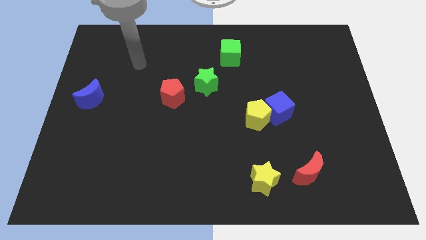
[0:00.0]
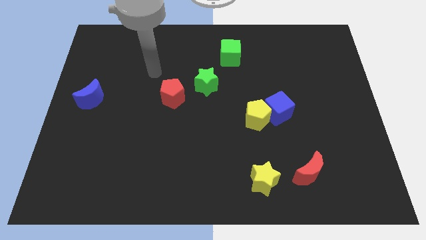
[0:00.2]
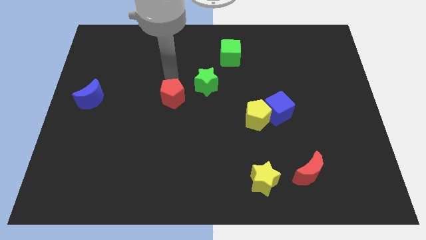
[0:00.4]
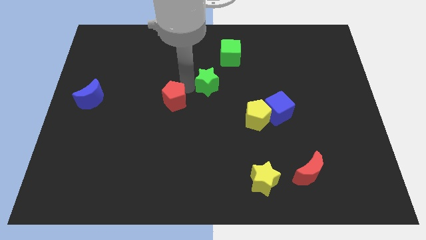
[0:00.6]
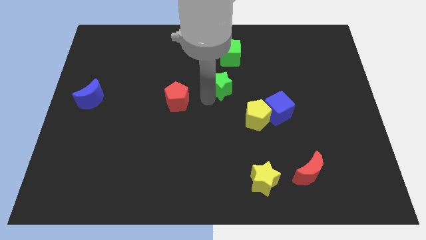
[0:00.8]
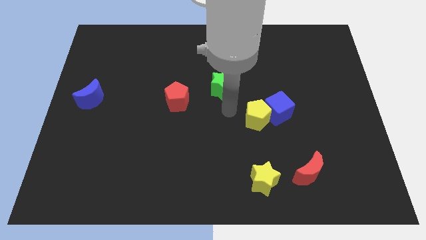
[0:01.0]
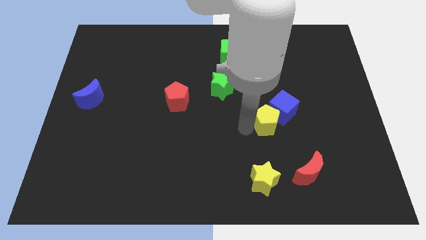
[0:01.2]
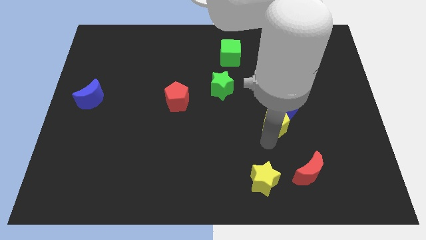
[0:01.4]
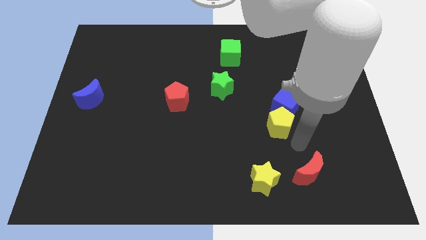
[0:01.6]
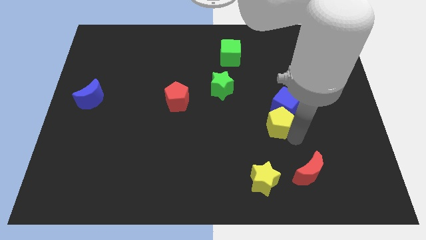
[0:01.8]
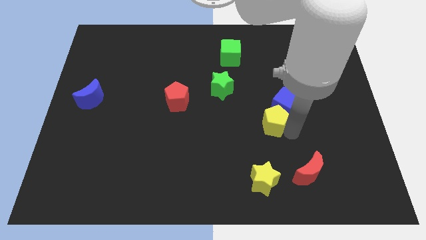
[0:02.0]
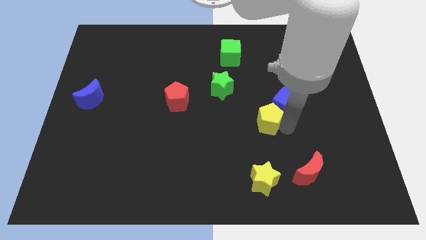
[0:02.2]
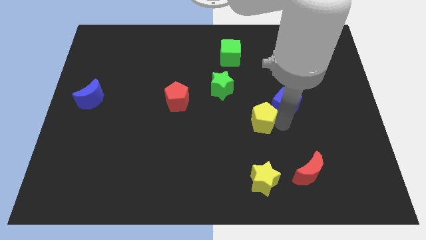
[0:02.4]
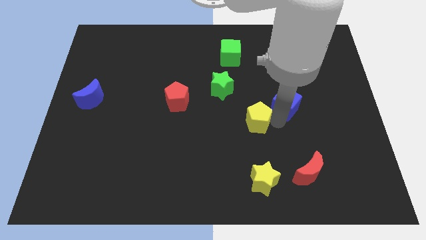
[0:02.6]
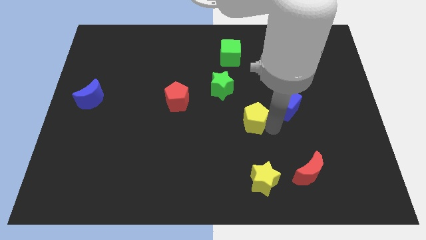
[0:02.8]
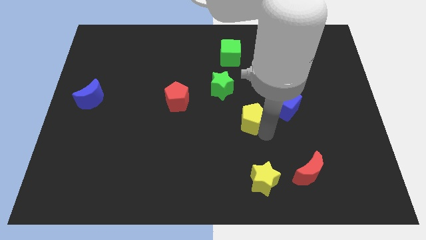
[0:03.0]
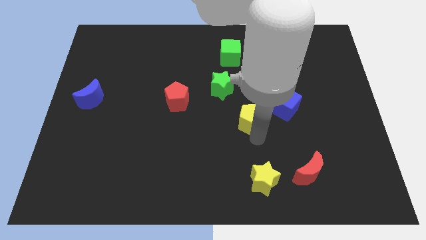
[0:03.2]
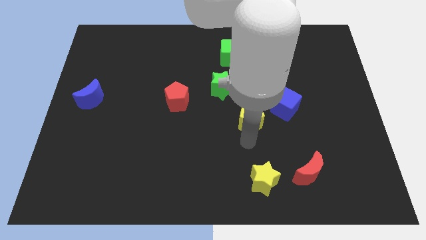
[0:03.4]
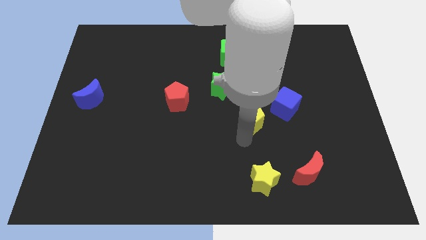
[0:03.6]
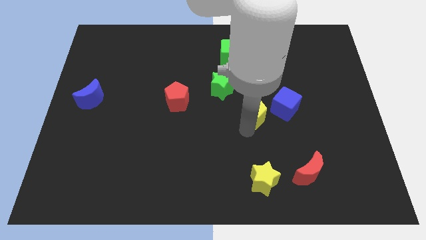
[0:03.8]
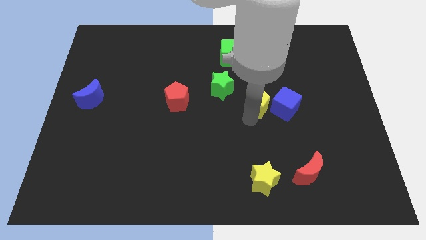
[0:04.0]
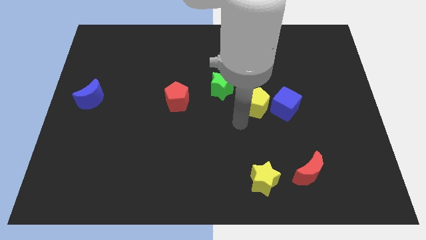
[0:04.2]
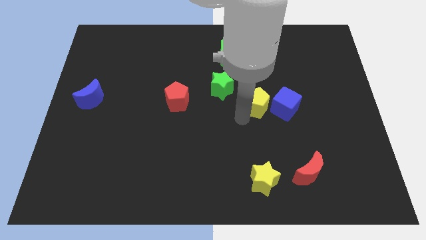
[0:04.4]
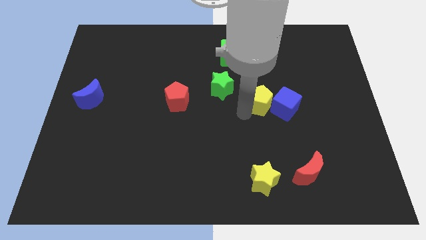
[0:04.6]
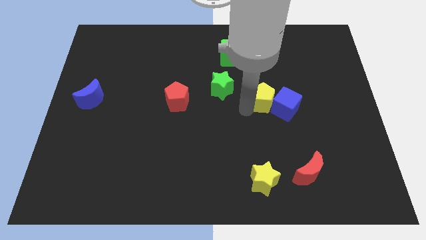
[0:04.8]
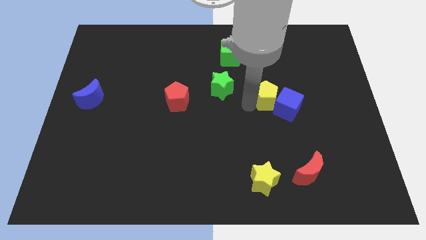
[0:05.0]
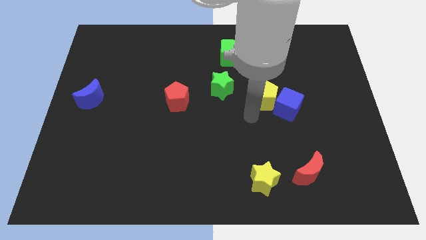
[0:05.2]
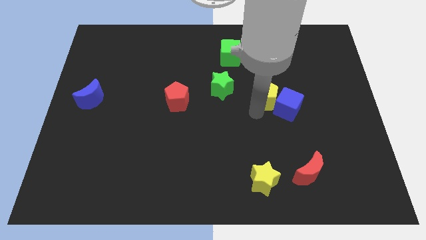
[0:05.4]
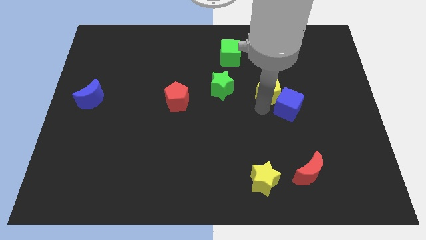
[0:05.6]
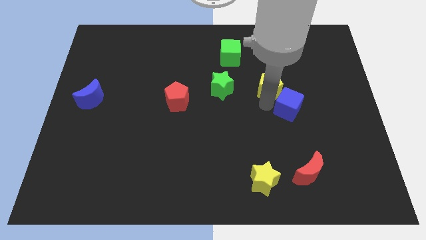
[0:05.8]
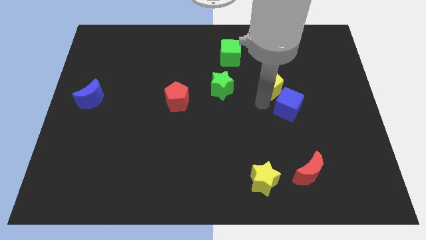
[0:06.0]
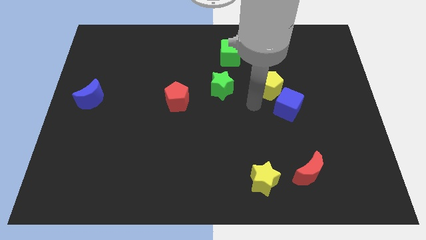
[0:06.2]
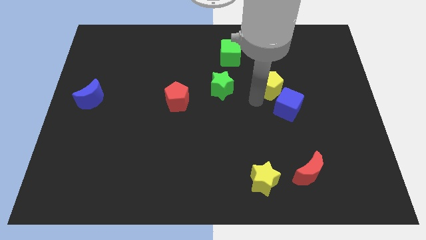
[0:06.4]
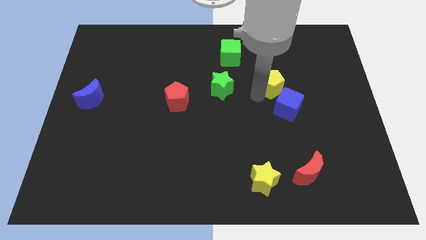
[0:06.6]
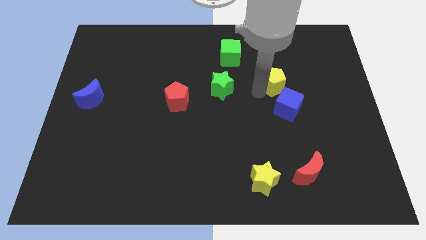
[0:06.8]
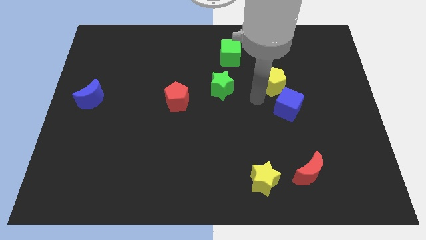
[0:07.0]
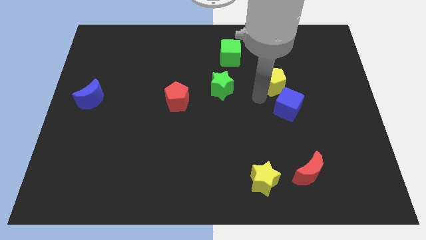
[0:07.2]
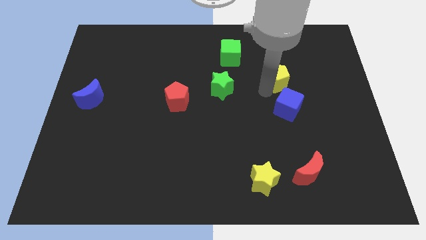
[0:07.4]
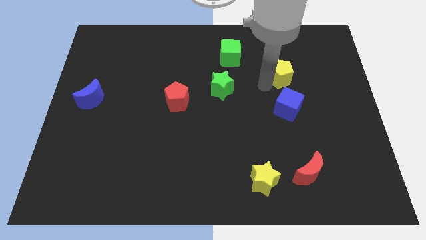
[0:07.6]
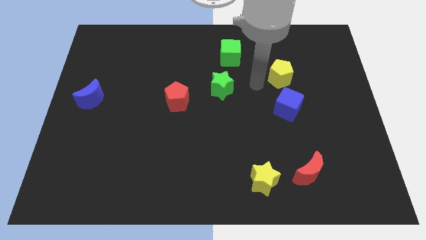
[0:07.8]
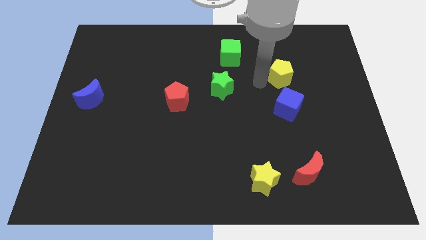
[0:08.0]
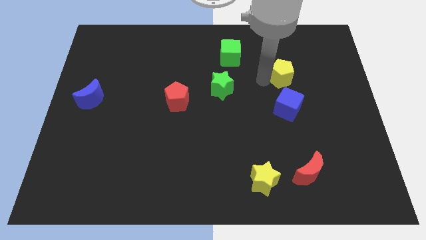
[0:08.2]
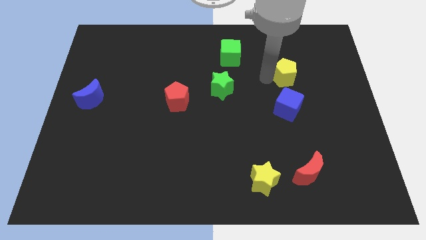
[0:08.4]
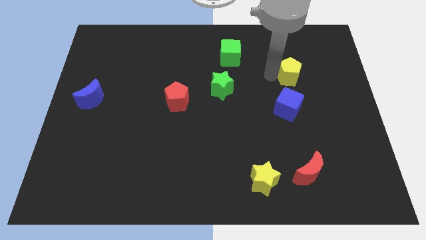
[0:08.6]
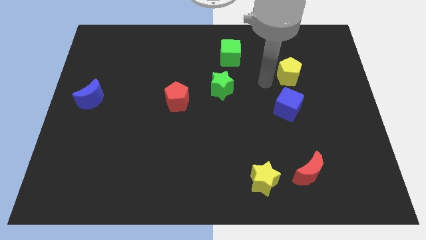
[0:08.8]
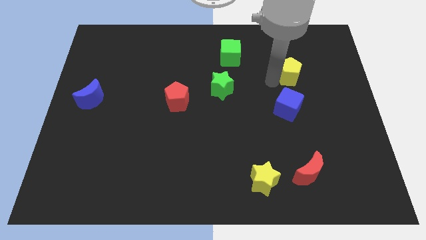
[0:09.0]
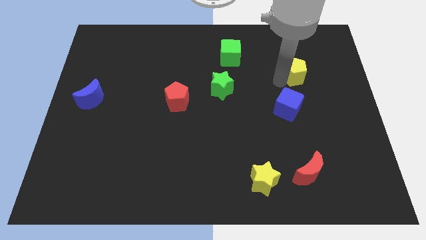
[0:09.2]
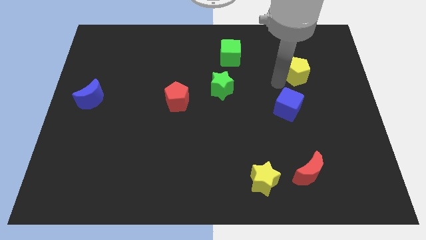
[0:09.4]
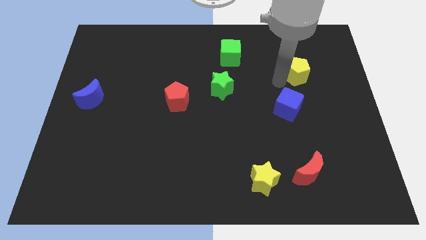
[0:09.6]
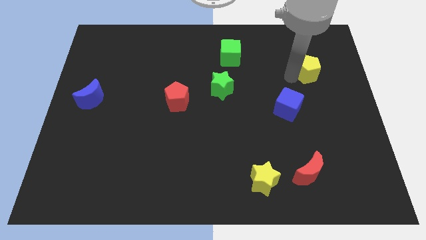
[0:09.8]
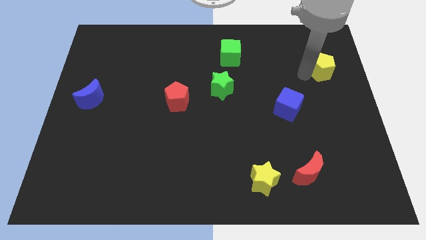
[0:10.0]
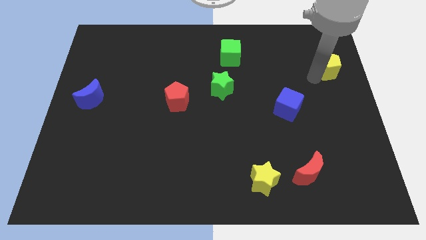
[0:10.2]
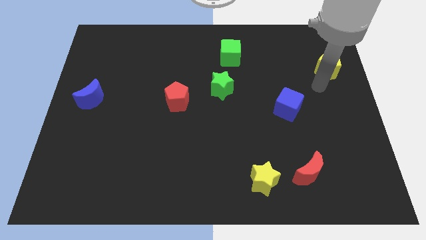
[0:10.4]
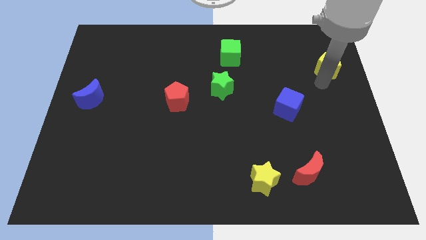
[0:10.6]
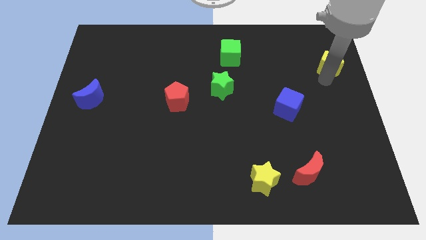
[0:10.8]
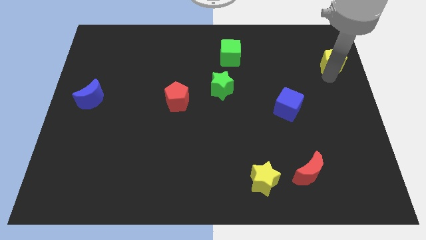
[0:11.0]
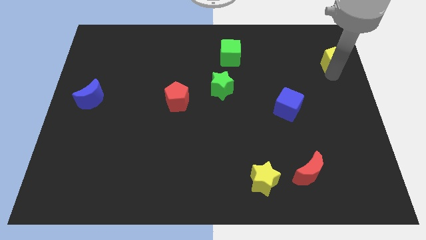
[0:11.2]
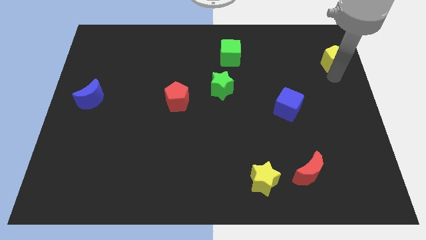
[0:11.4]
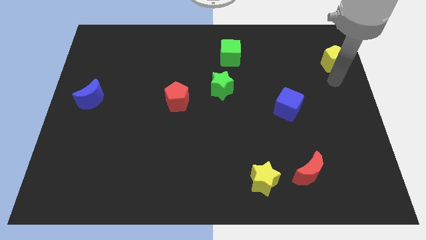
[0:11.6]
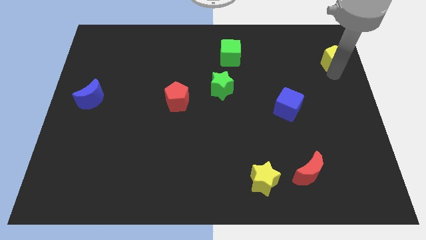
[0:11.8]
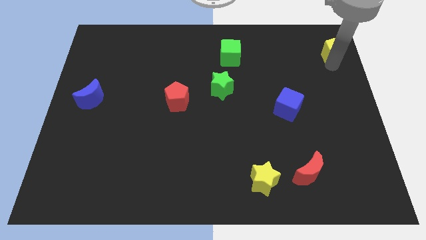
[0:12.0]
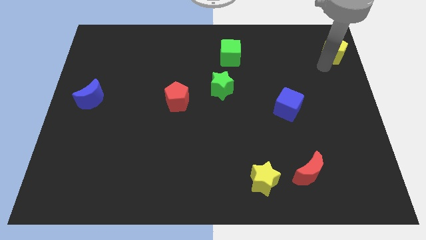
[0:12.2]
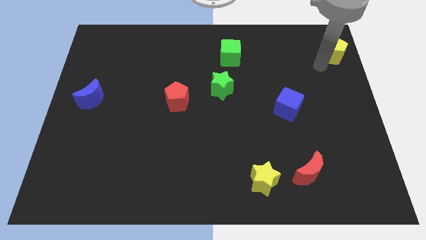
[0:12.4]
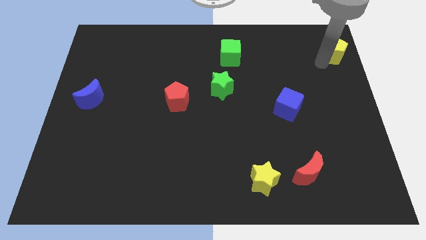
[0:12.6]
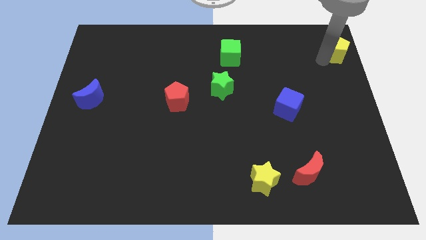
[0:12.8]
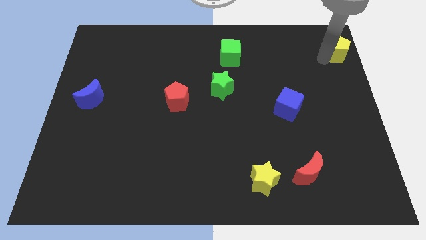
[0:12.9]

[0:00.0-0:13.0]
move the yellow pentagon to the top right
